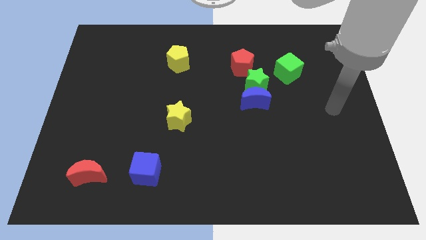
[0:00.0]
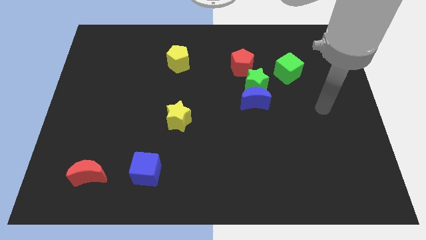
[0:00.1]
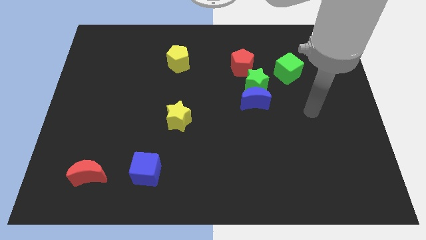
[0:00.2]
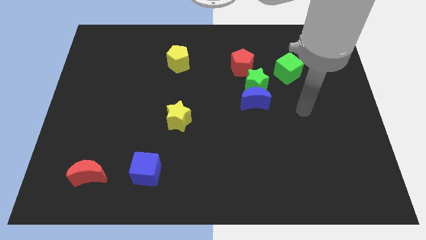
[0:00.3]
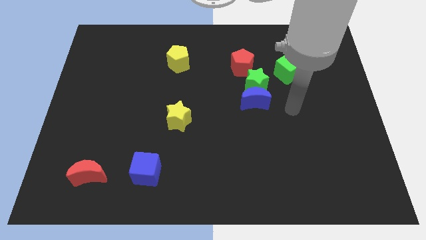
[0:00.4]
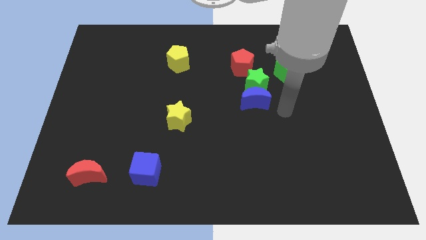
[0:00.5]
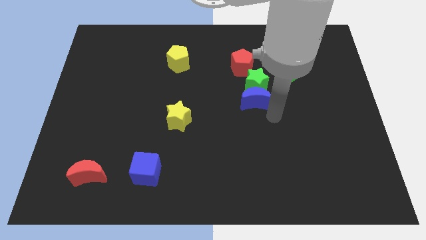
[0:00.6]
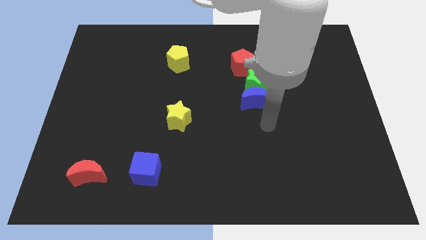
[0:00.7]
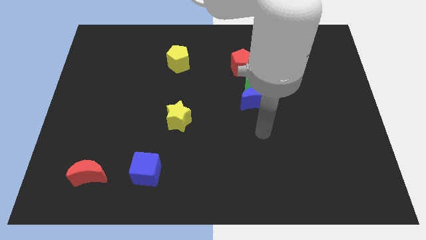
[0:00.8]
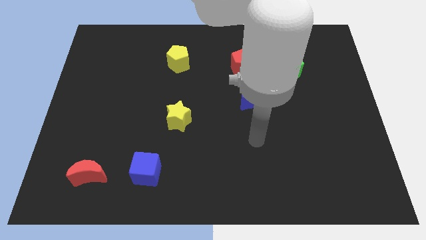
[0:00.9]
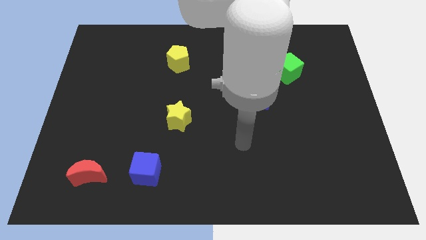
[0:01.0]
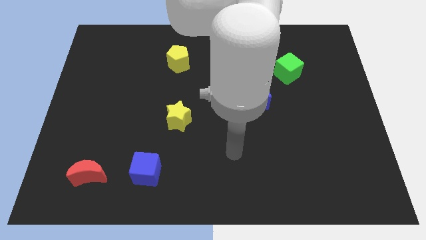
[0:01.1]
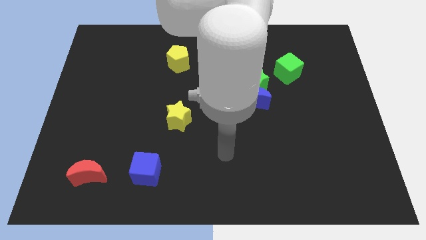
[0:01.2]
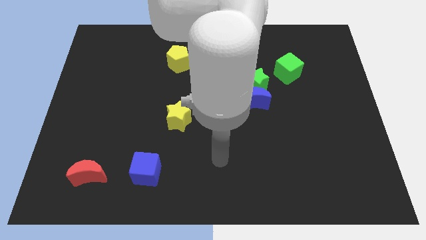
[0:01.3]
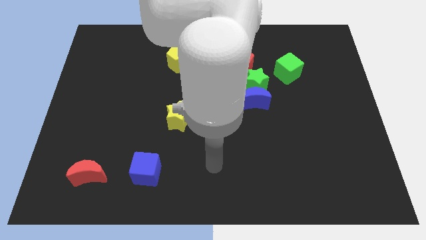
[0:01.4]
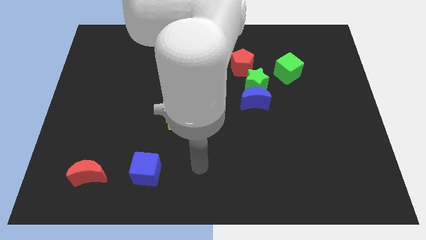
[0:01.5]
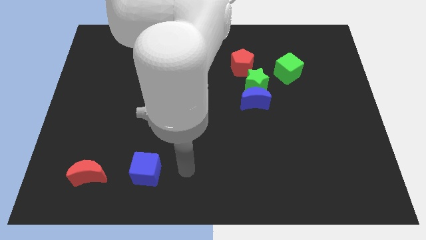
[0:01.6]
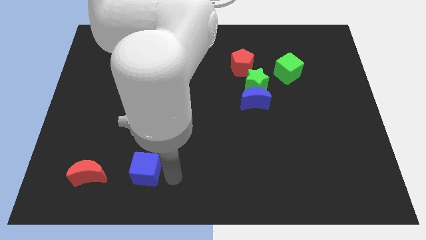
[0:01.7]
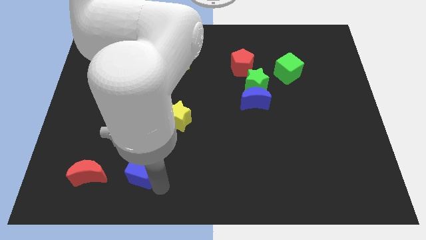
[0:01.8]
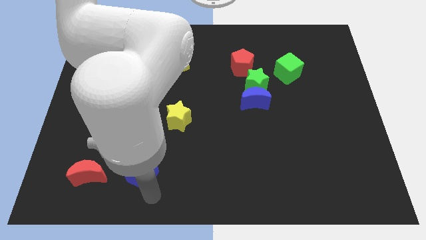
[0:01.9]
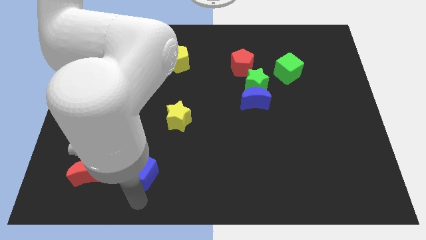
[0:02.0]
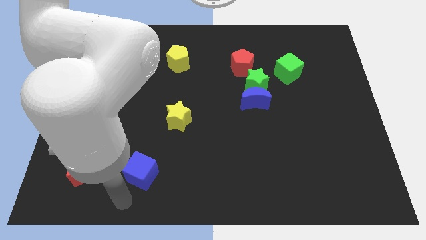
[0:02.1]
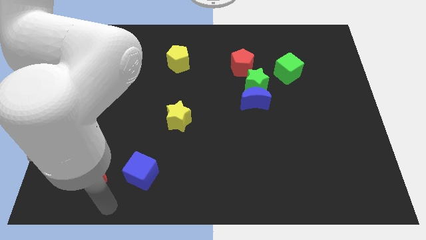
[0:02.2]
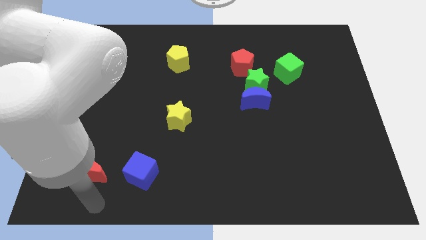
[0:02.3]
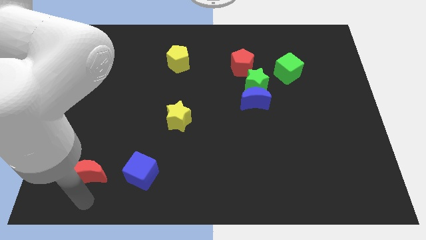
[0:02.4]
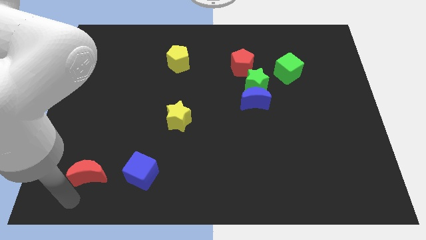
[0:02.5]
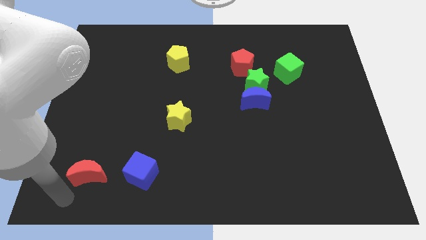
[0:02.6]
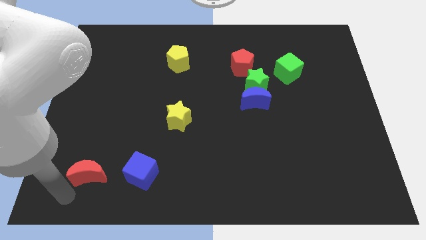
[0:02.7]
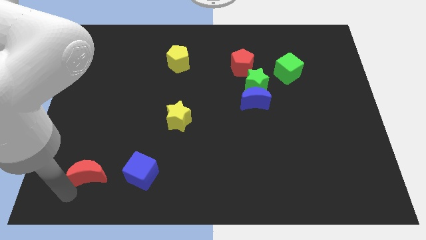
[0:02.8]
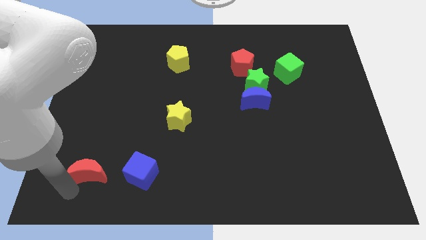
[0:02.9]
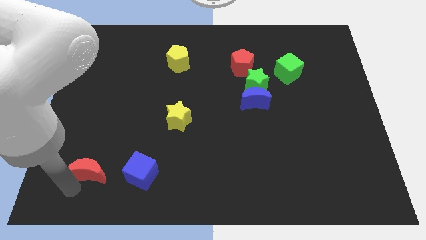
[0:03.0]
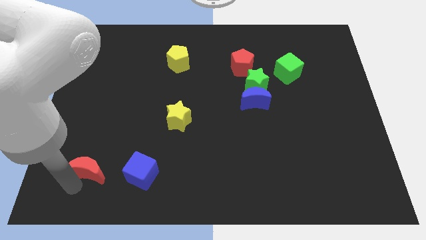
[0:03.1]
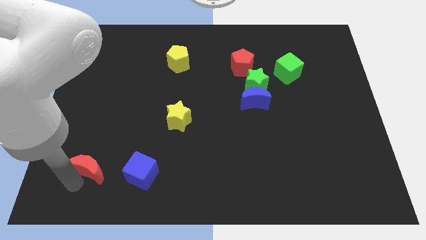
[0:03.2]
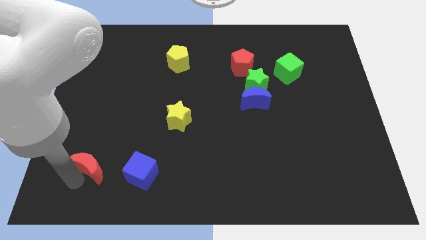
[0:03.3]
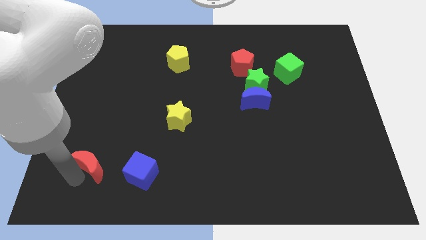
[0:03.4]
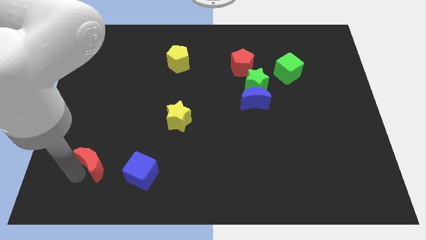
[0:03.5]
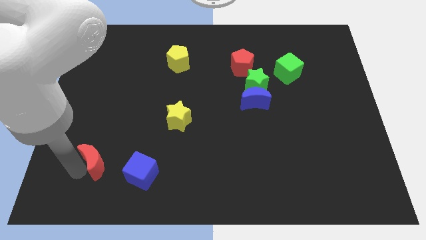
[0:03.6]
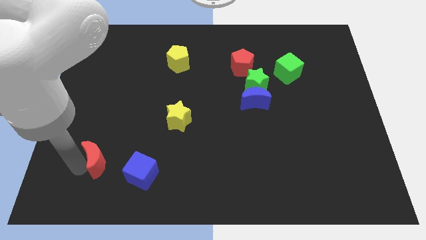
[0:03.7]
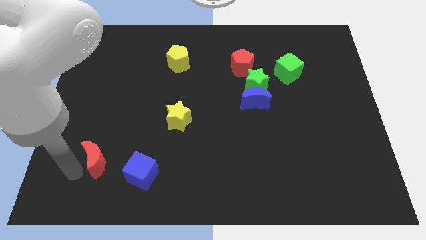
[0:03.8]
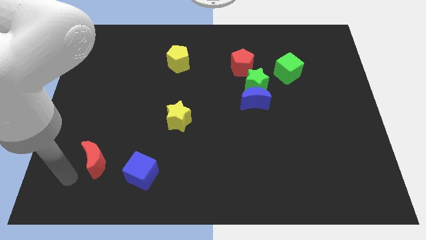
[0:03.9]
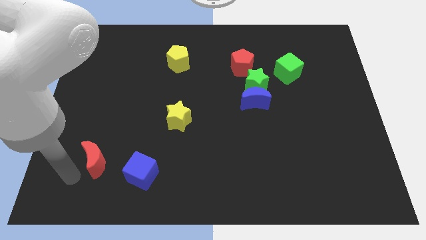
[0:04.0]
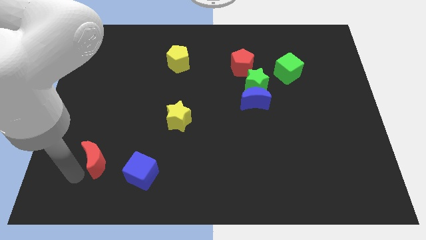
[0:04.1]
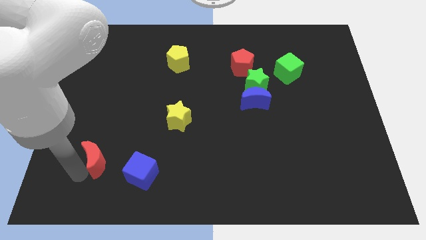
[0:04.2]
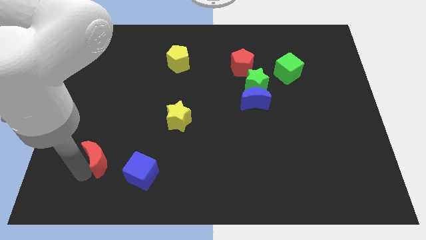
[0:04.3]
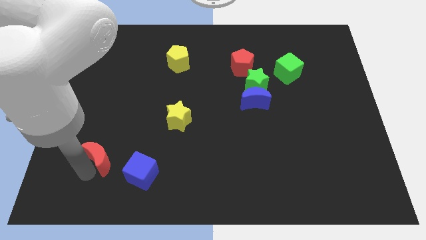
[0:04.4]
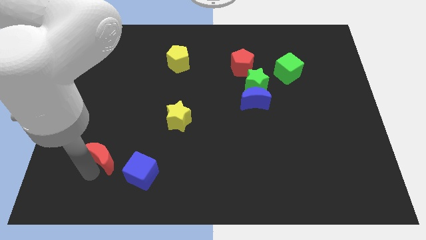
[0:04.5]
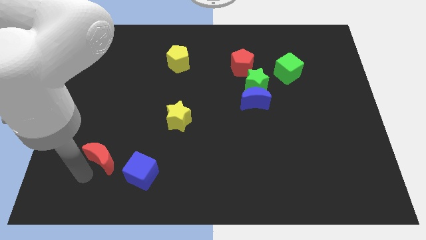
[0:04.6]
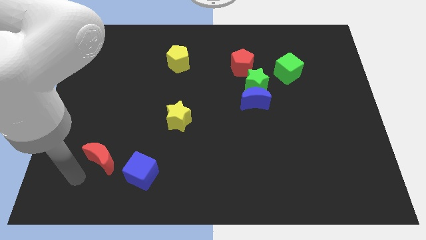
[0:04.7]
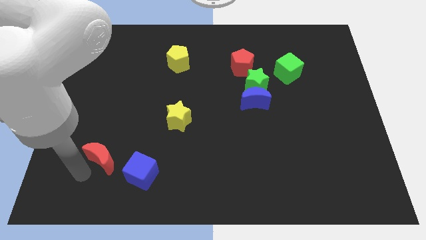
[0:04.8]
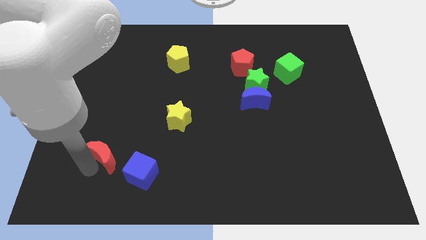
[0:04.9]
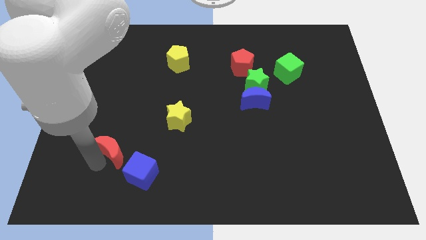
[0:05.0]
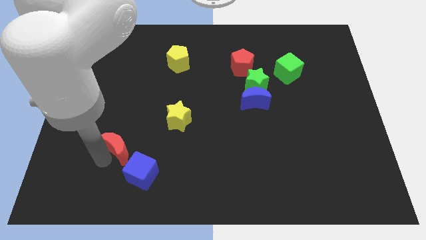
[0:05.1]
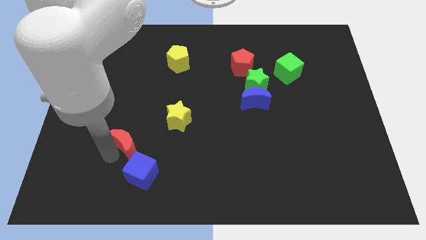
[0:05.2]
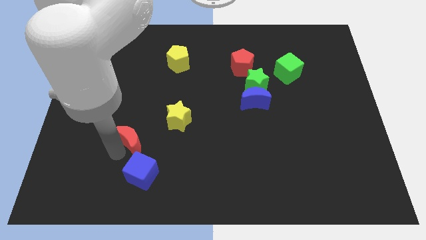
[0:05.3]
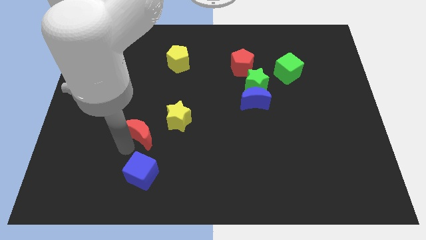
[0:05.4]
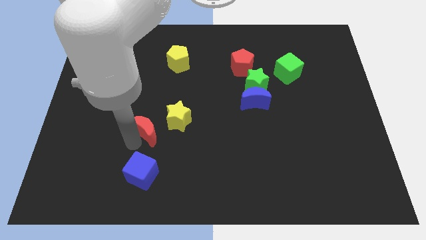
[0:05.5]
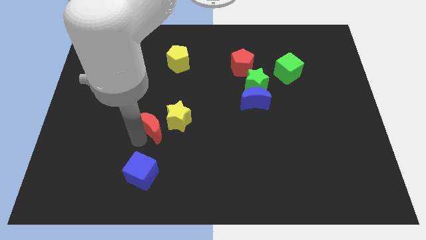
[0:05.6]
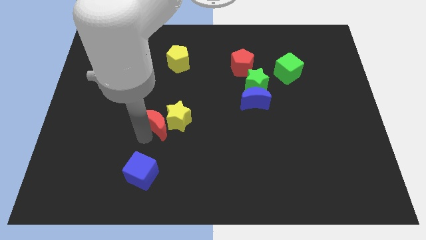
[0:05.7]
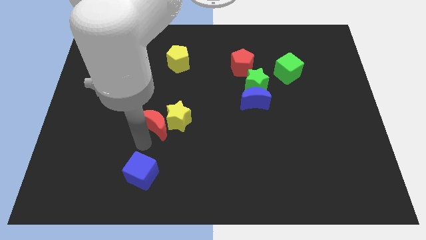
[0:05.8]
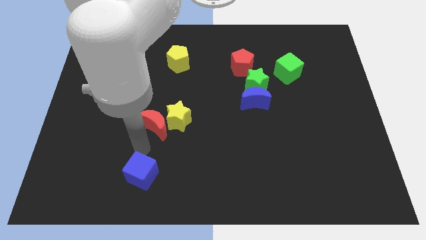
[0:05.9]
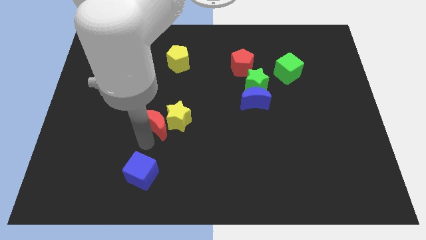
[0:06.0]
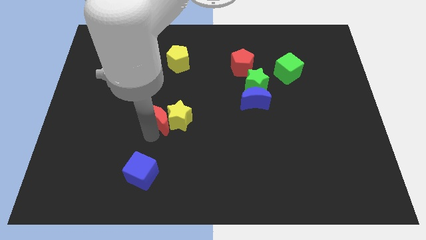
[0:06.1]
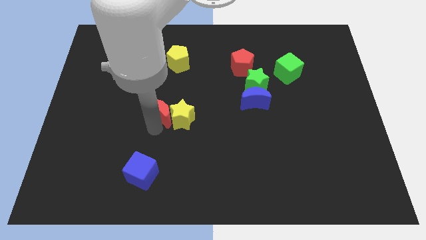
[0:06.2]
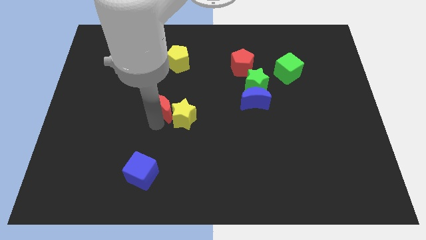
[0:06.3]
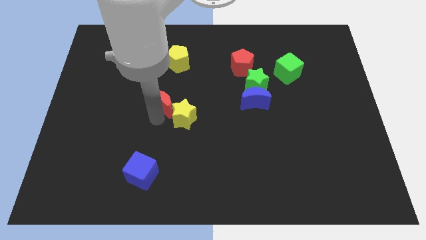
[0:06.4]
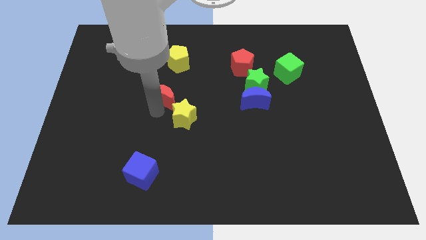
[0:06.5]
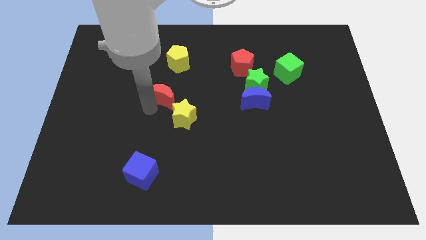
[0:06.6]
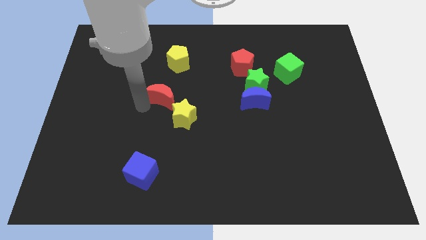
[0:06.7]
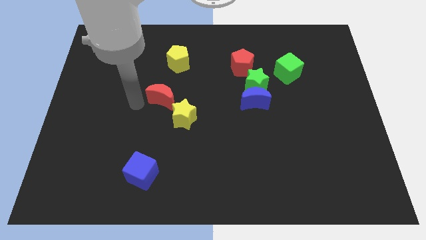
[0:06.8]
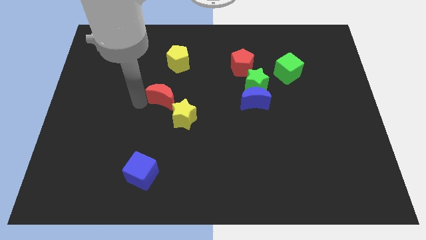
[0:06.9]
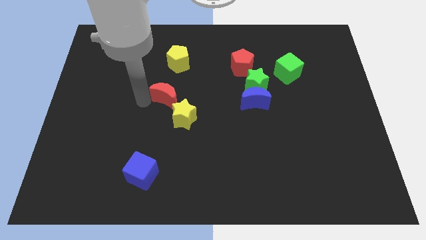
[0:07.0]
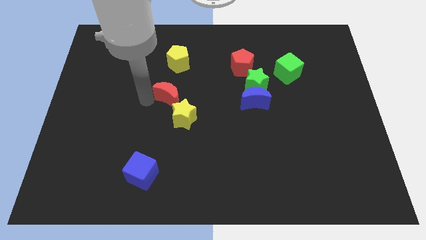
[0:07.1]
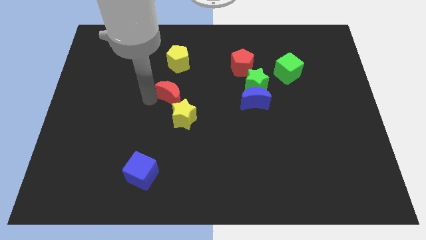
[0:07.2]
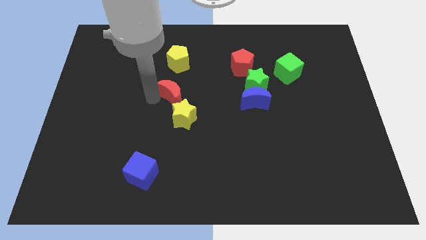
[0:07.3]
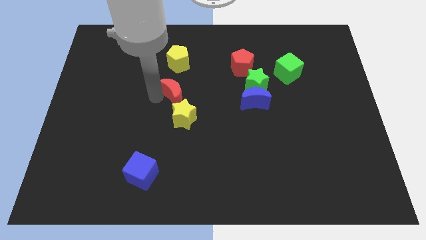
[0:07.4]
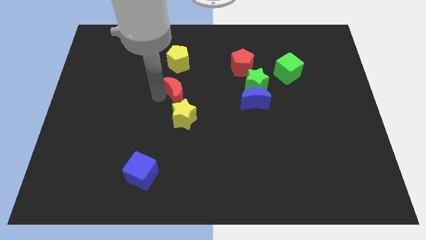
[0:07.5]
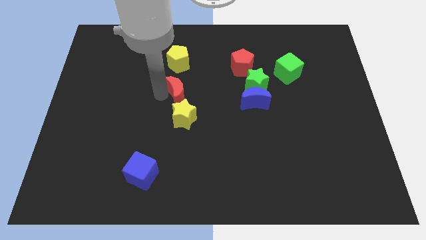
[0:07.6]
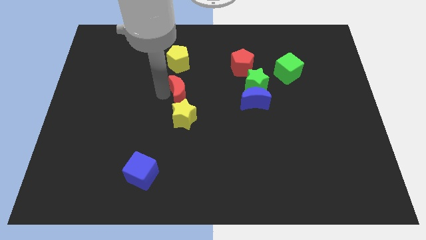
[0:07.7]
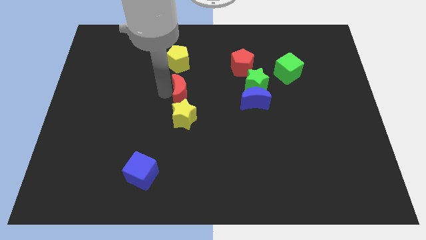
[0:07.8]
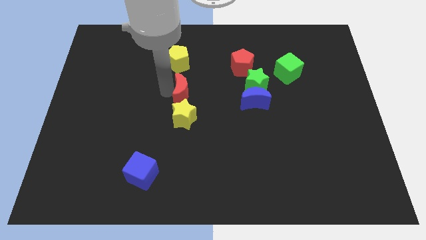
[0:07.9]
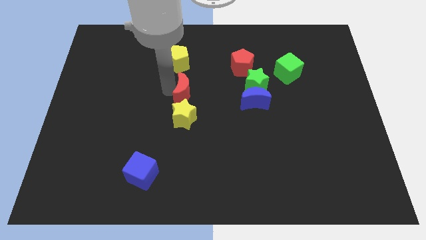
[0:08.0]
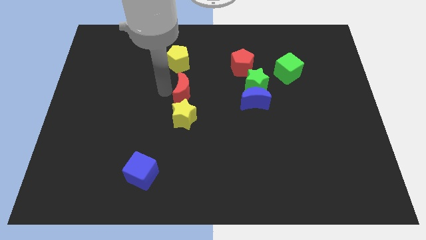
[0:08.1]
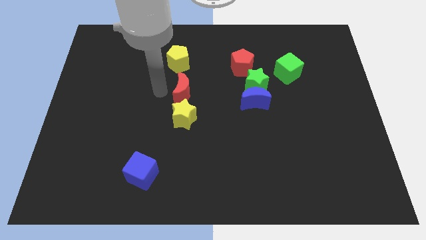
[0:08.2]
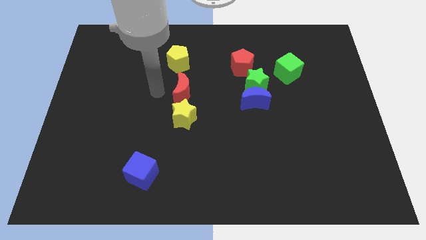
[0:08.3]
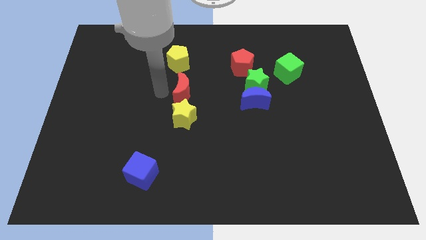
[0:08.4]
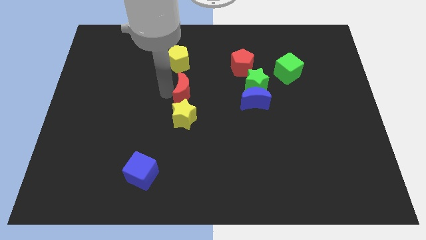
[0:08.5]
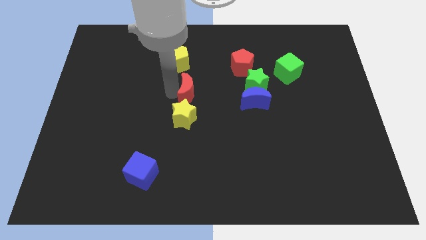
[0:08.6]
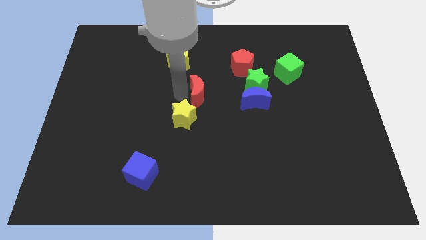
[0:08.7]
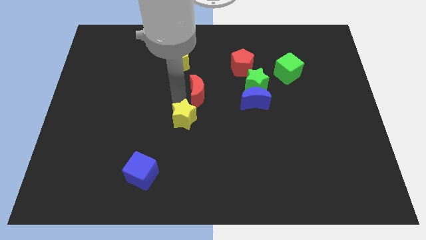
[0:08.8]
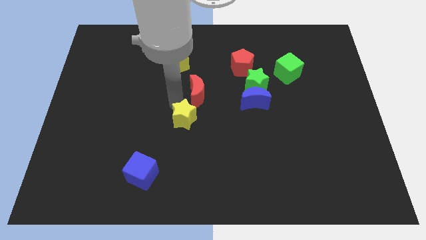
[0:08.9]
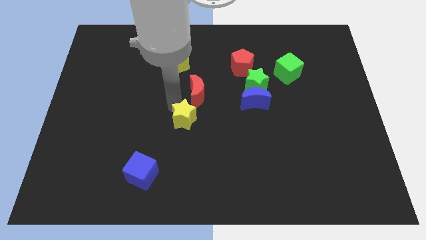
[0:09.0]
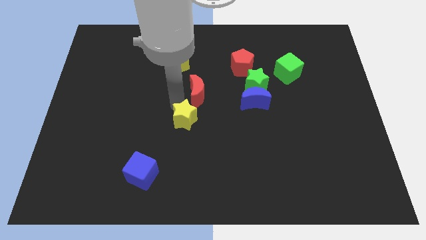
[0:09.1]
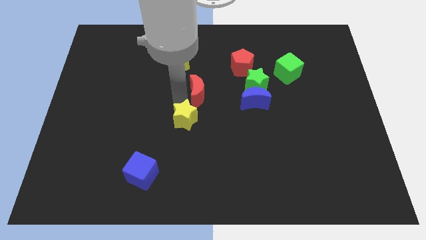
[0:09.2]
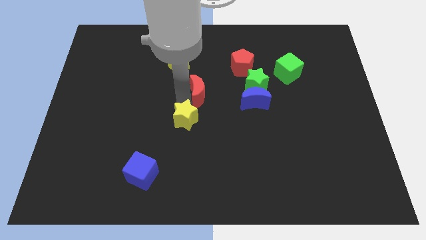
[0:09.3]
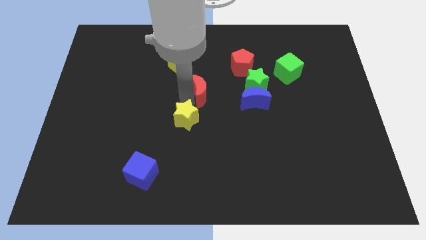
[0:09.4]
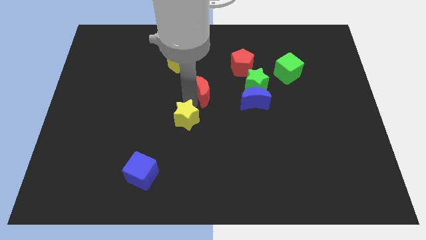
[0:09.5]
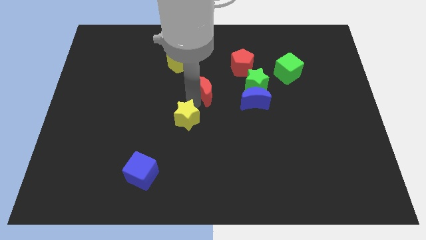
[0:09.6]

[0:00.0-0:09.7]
put the red moon to the bottom left side of the red pentagon
